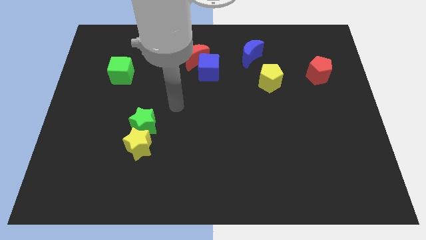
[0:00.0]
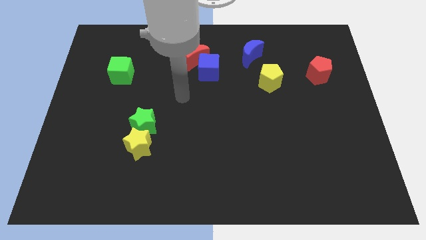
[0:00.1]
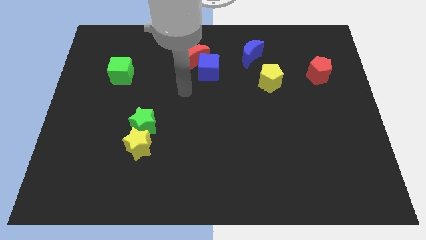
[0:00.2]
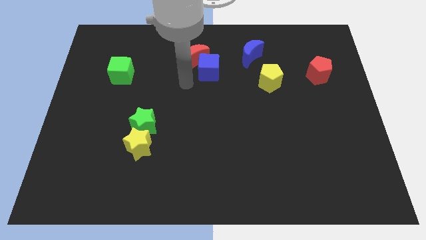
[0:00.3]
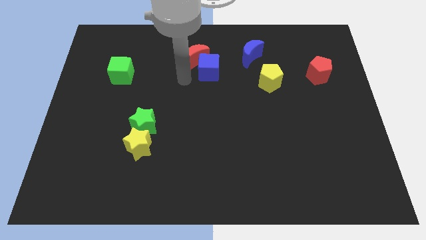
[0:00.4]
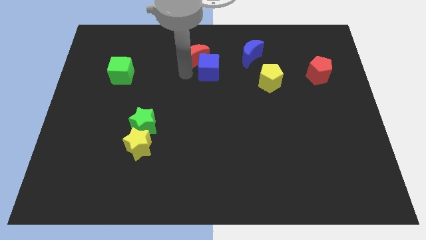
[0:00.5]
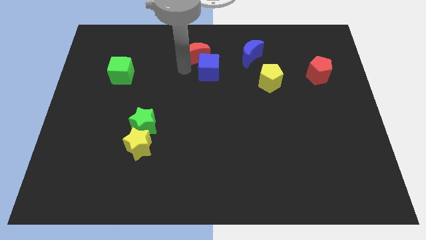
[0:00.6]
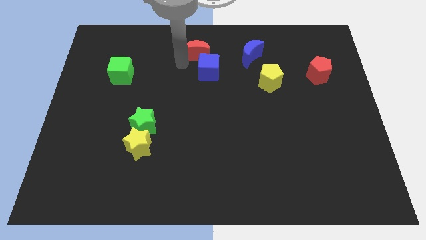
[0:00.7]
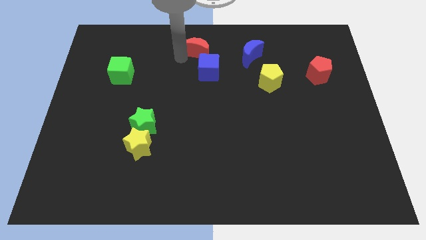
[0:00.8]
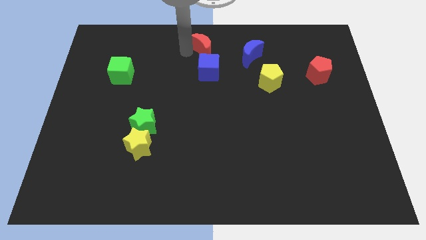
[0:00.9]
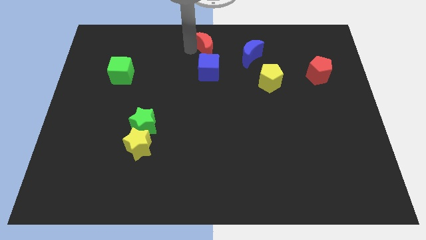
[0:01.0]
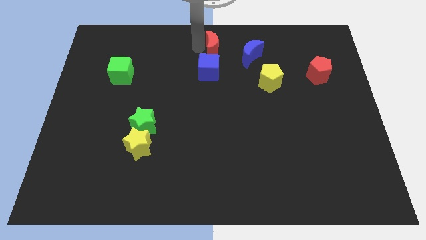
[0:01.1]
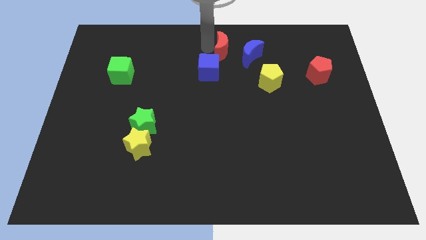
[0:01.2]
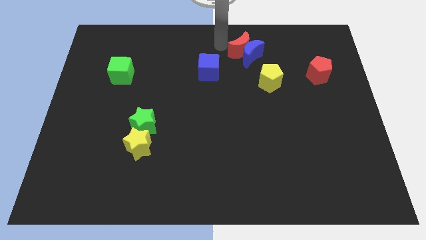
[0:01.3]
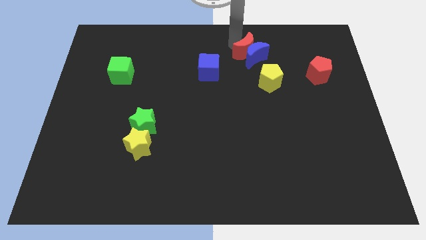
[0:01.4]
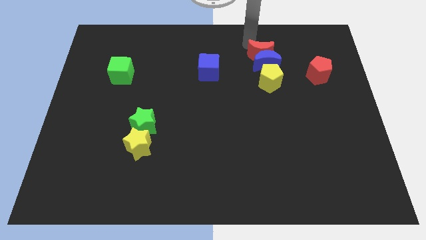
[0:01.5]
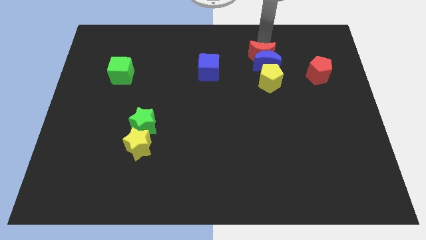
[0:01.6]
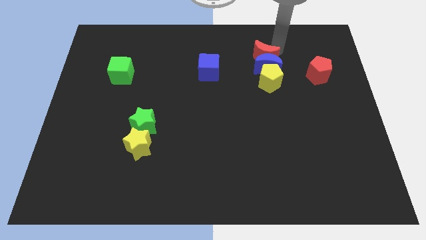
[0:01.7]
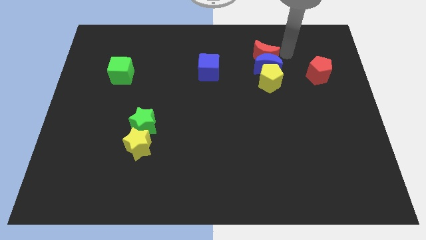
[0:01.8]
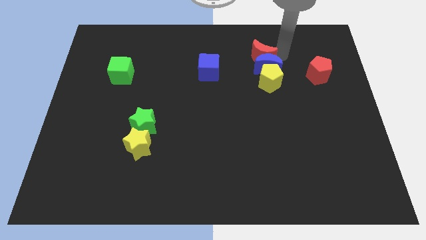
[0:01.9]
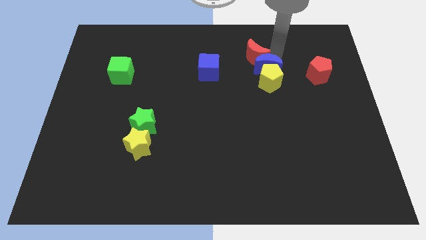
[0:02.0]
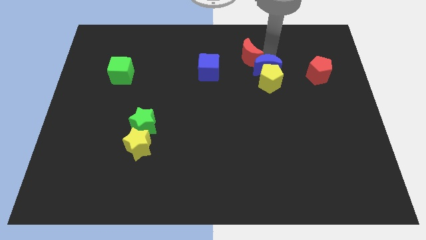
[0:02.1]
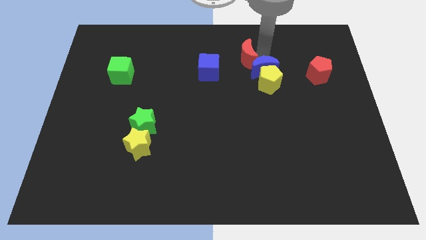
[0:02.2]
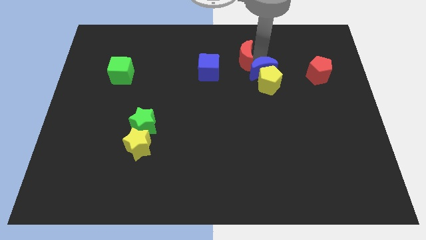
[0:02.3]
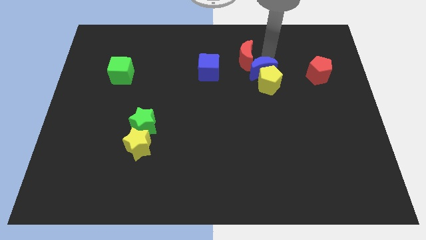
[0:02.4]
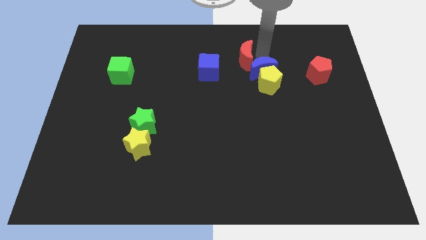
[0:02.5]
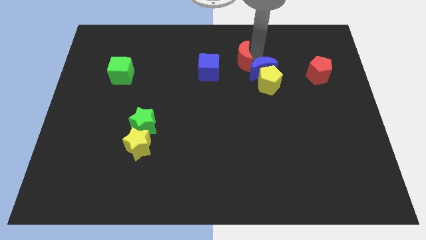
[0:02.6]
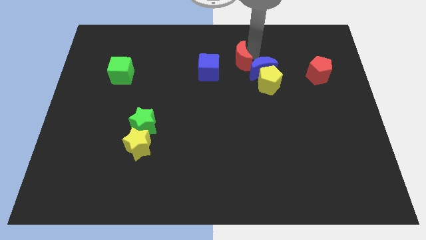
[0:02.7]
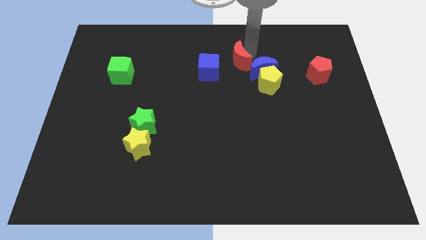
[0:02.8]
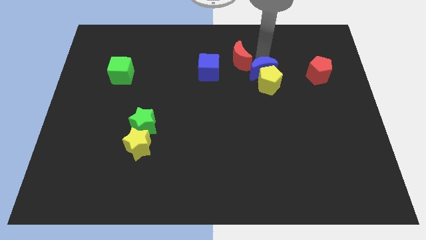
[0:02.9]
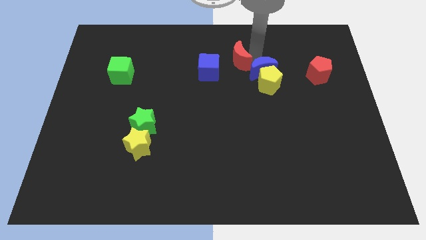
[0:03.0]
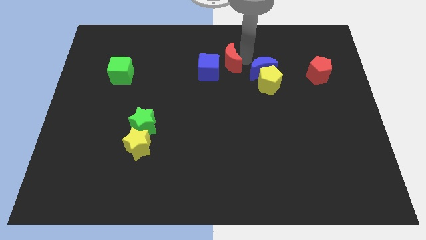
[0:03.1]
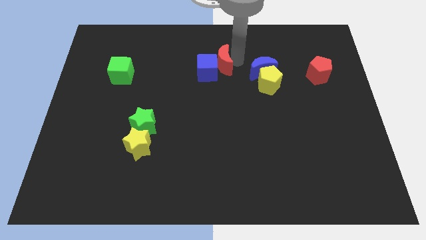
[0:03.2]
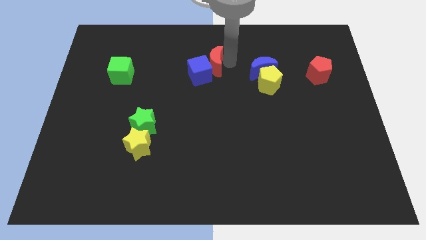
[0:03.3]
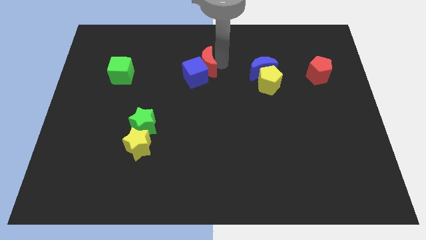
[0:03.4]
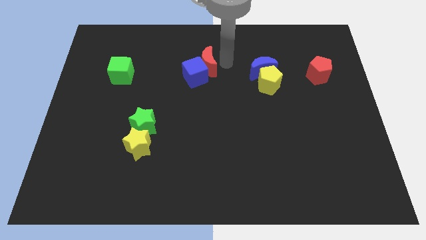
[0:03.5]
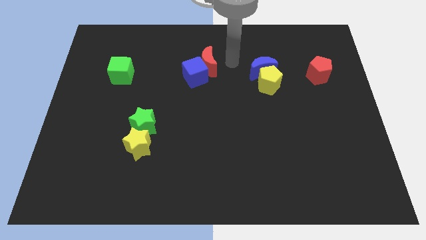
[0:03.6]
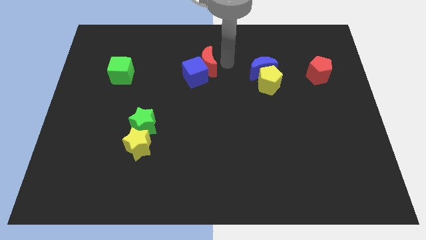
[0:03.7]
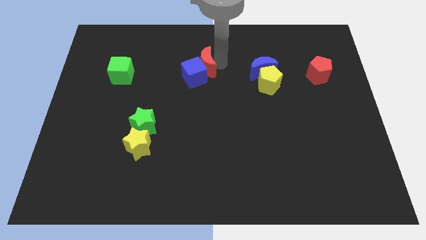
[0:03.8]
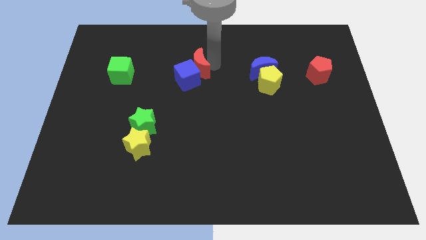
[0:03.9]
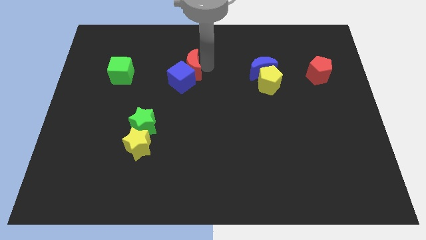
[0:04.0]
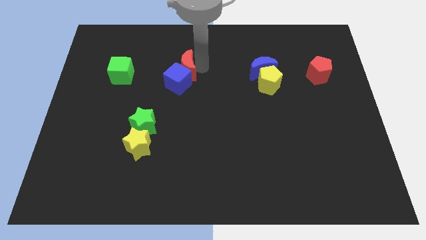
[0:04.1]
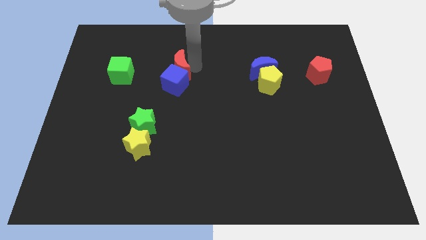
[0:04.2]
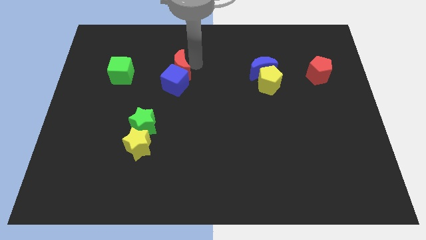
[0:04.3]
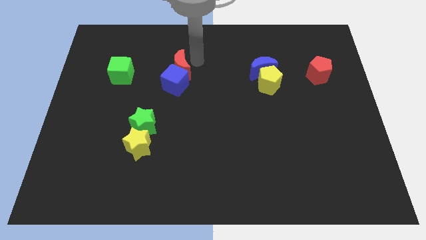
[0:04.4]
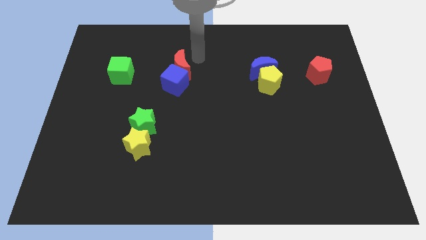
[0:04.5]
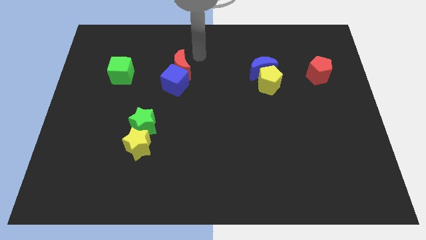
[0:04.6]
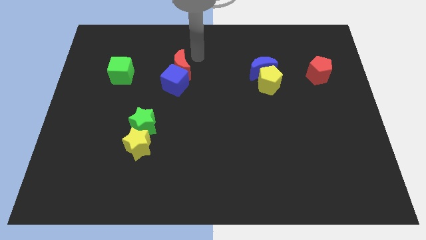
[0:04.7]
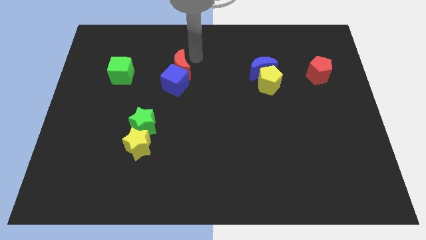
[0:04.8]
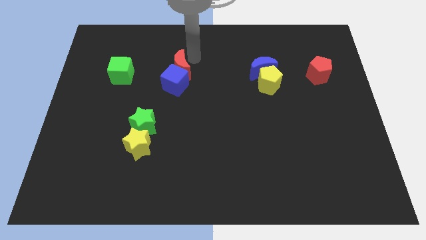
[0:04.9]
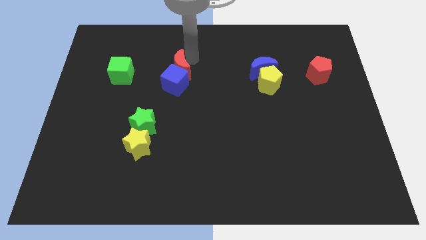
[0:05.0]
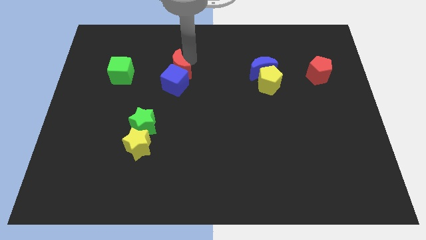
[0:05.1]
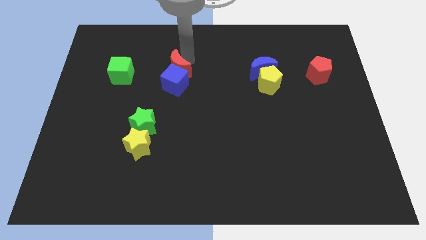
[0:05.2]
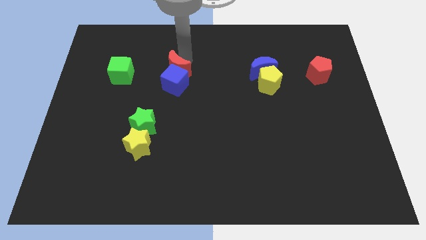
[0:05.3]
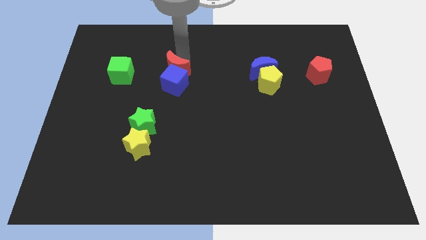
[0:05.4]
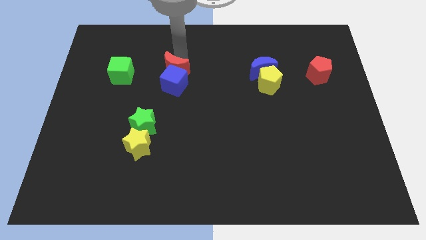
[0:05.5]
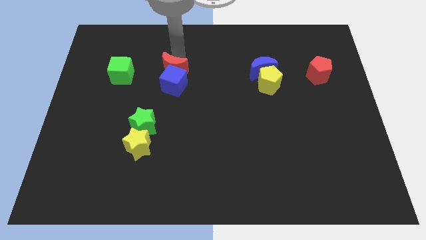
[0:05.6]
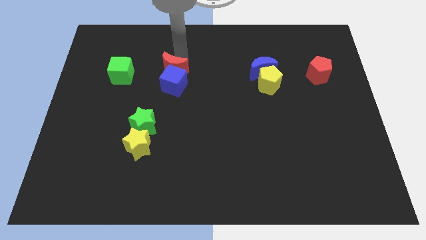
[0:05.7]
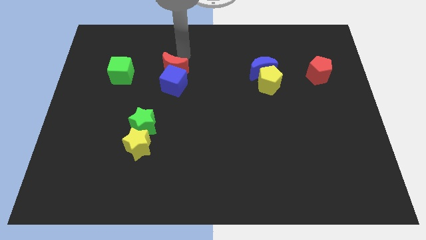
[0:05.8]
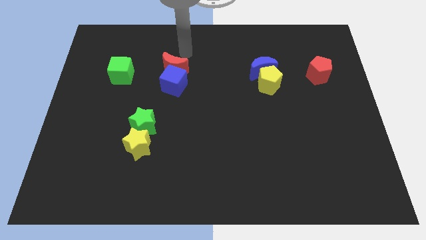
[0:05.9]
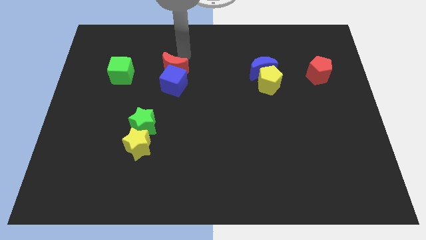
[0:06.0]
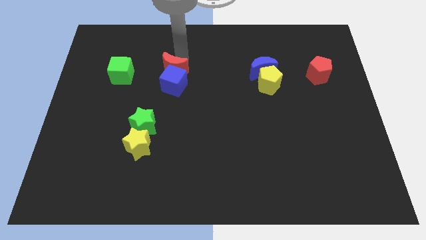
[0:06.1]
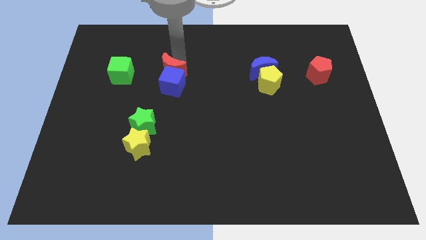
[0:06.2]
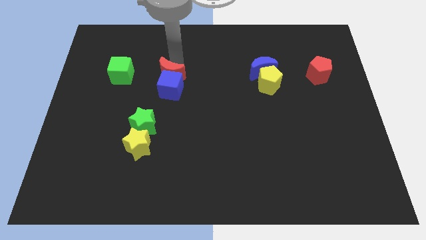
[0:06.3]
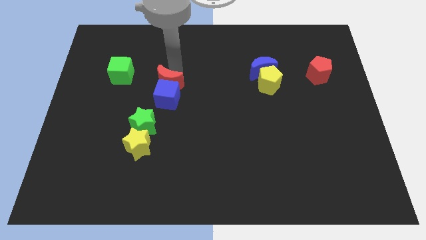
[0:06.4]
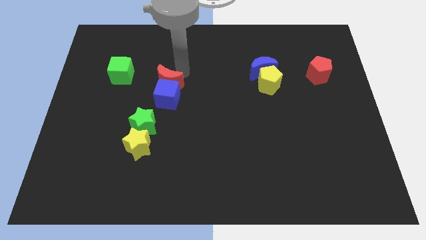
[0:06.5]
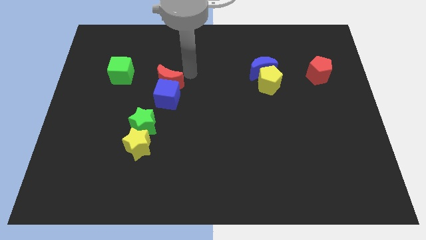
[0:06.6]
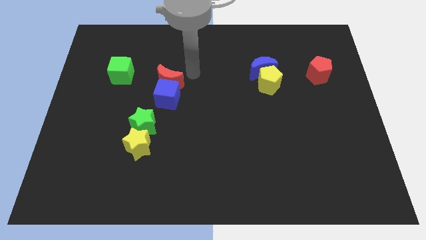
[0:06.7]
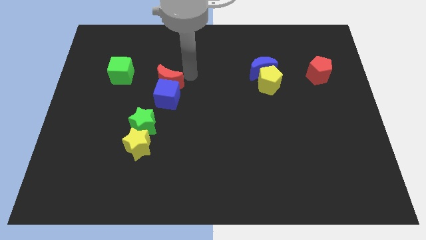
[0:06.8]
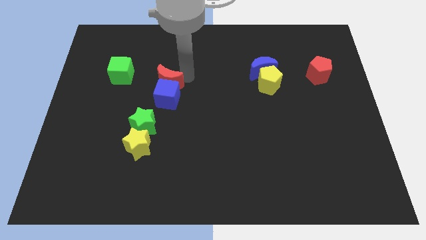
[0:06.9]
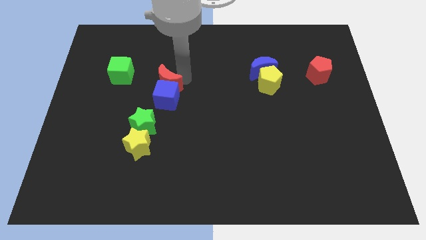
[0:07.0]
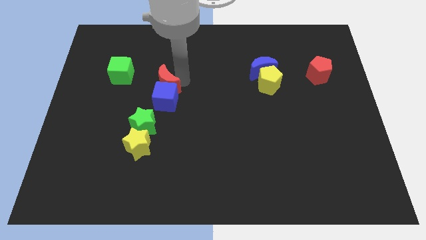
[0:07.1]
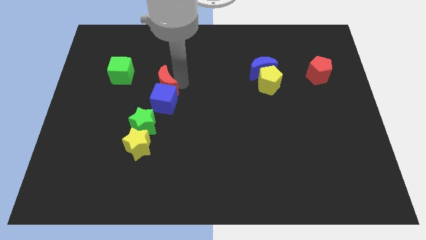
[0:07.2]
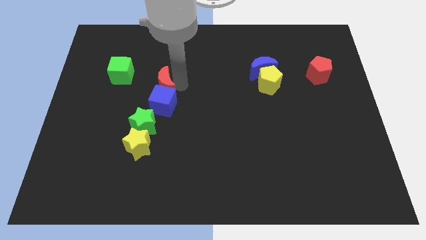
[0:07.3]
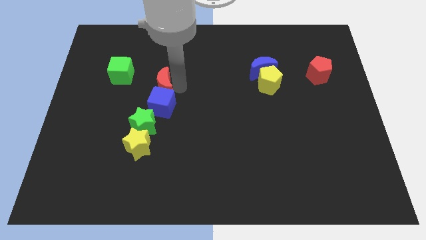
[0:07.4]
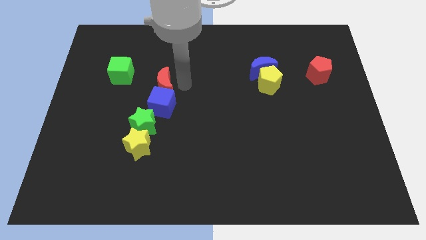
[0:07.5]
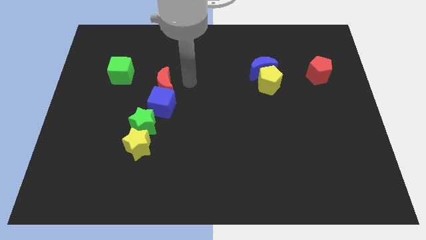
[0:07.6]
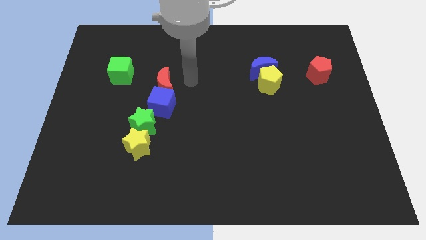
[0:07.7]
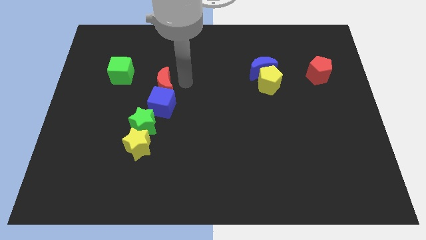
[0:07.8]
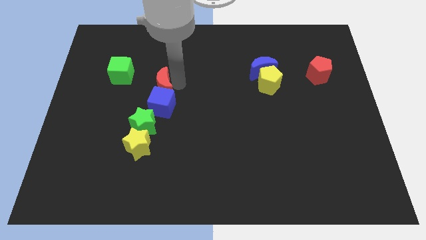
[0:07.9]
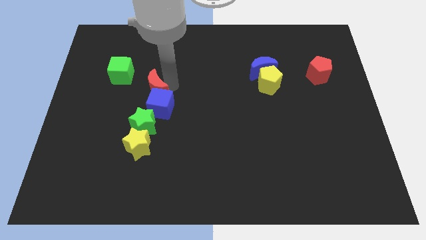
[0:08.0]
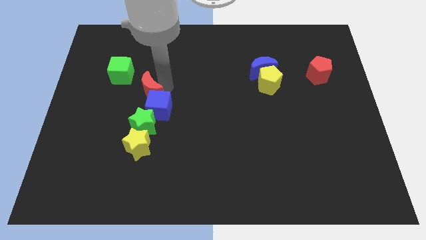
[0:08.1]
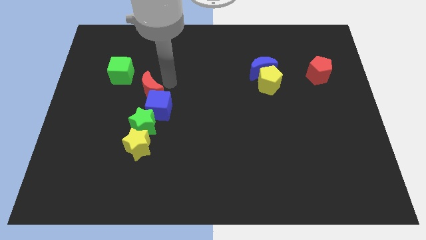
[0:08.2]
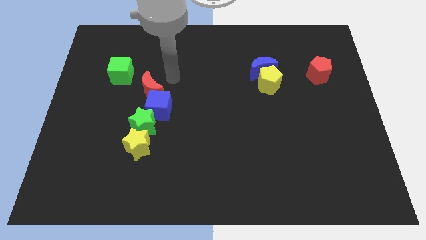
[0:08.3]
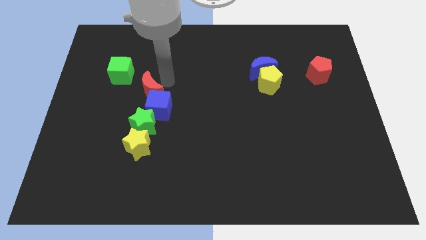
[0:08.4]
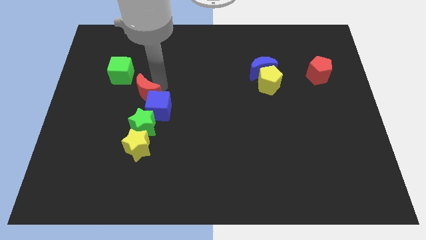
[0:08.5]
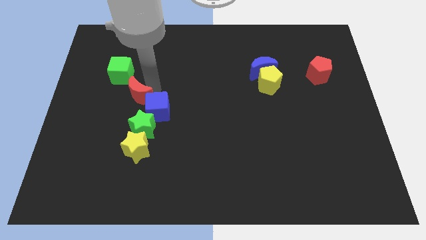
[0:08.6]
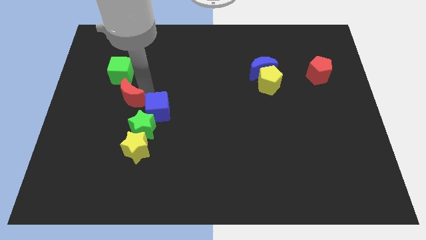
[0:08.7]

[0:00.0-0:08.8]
put the red moon diagonally up and to the left of the green star
